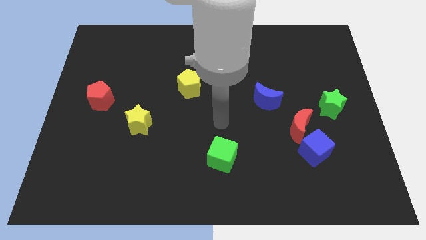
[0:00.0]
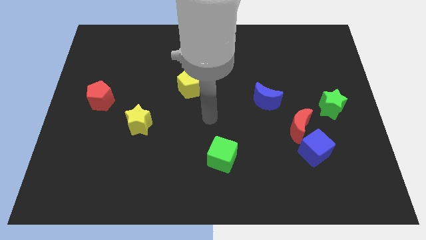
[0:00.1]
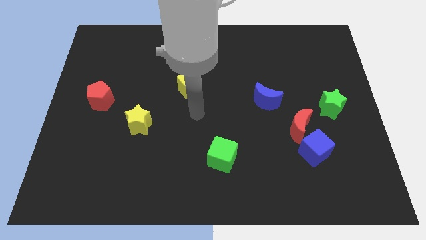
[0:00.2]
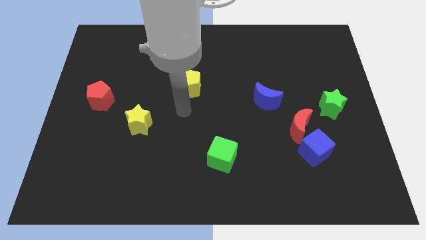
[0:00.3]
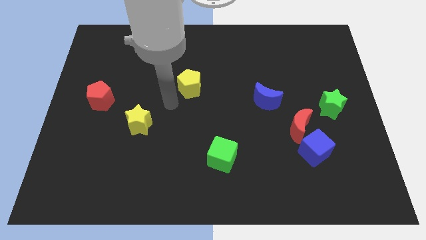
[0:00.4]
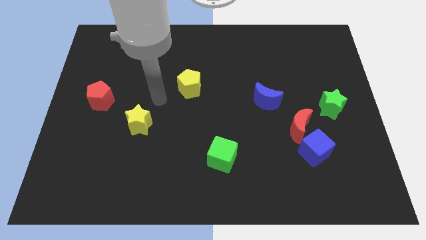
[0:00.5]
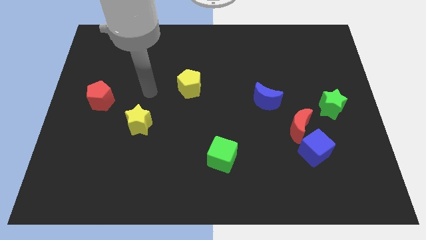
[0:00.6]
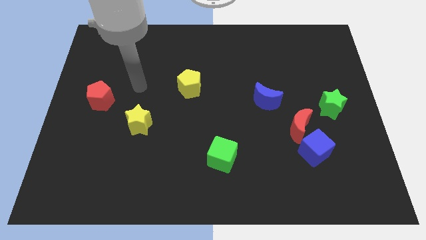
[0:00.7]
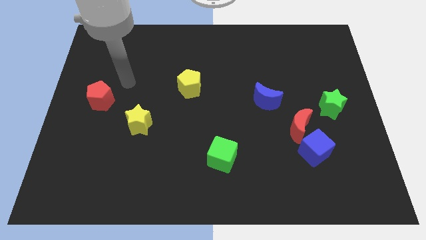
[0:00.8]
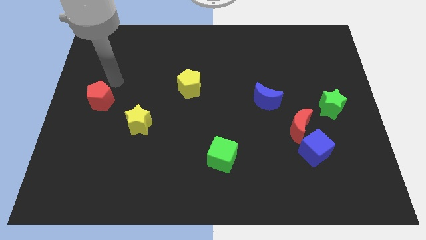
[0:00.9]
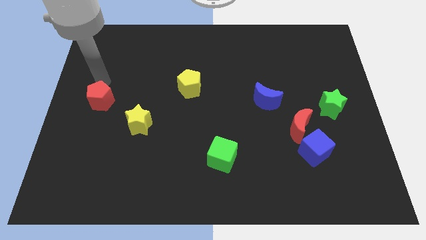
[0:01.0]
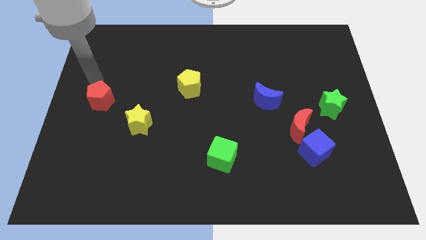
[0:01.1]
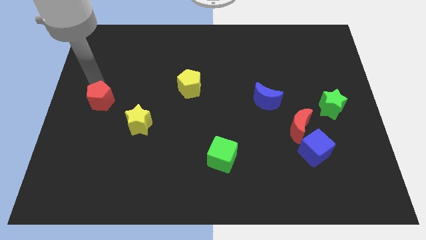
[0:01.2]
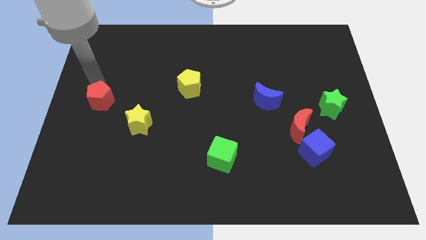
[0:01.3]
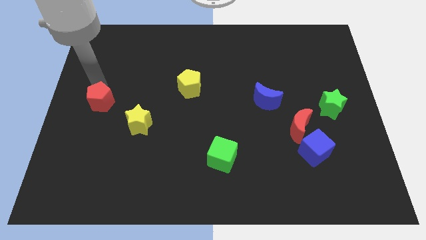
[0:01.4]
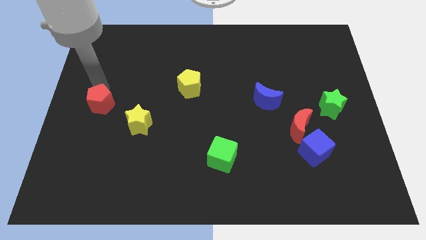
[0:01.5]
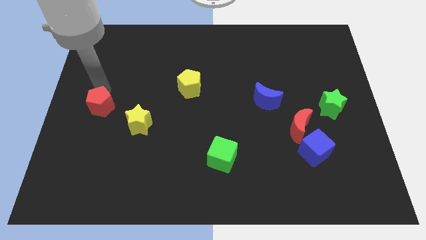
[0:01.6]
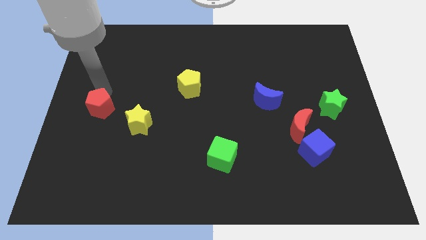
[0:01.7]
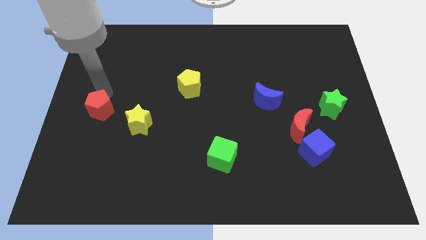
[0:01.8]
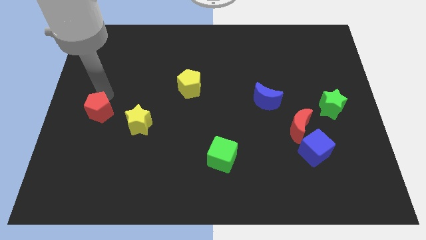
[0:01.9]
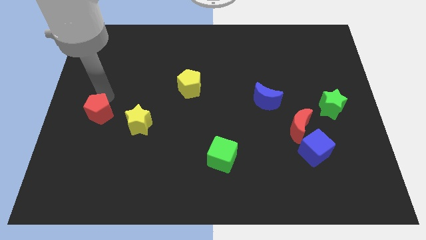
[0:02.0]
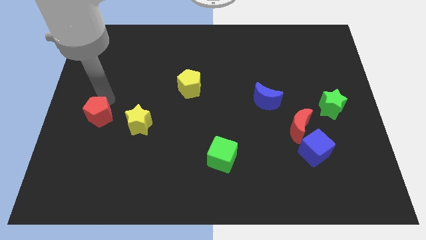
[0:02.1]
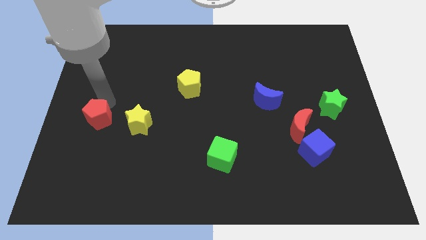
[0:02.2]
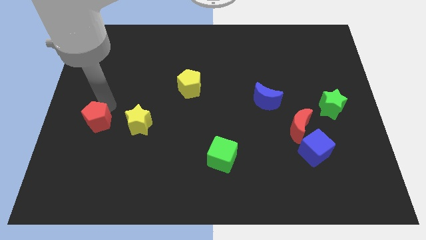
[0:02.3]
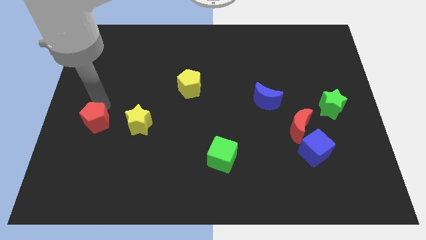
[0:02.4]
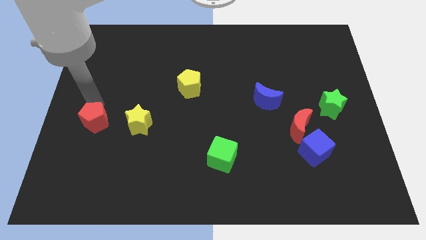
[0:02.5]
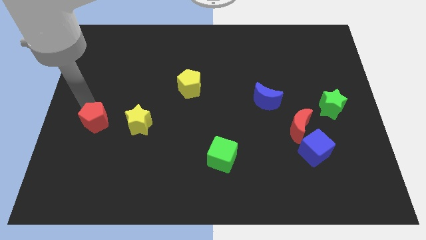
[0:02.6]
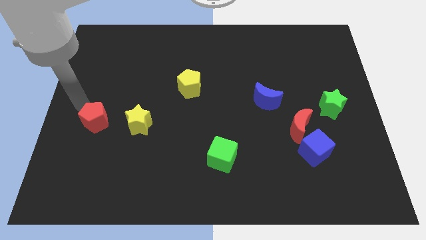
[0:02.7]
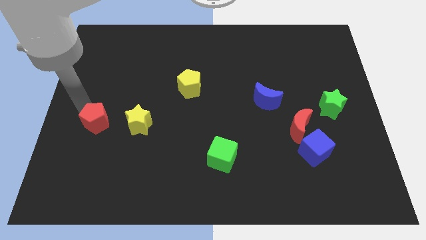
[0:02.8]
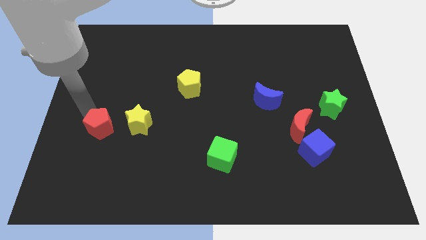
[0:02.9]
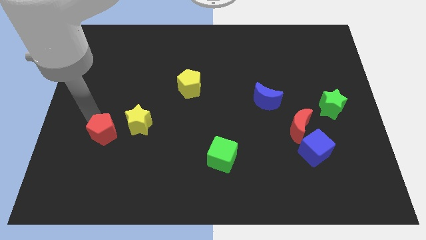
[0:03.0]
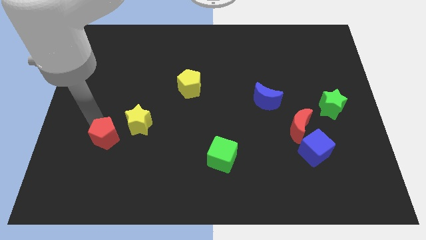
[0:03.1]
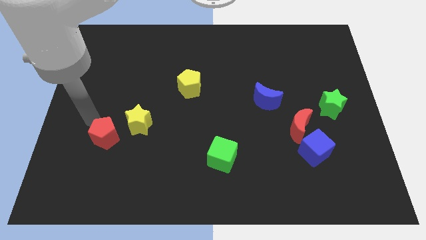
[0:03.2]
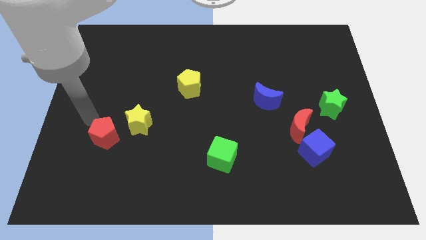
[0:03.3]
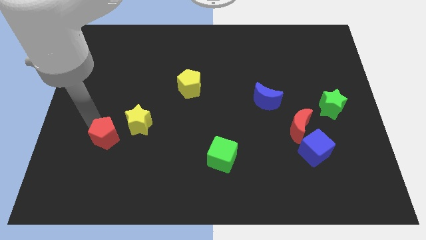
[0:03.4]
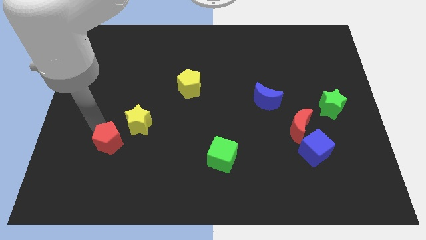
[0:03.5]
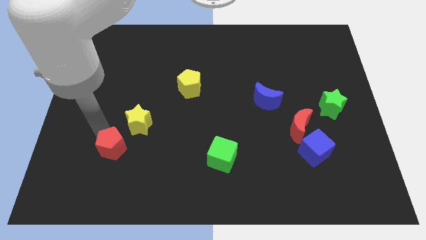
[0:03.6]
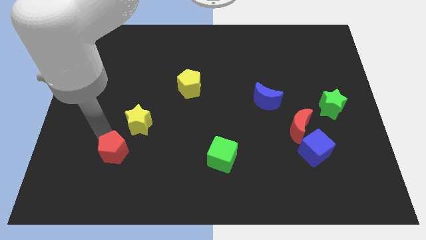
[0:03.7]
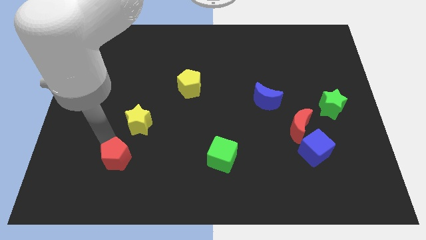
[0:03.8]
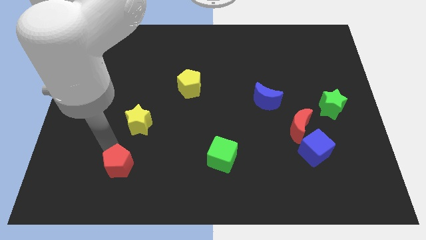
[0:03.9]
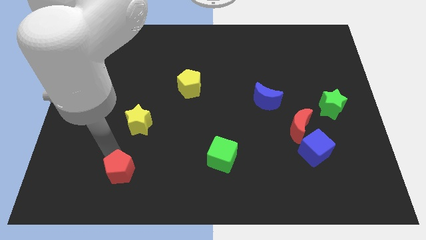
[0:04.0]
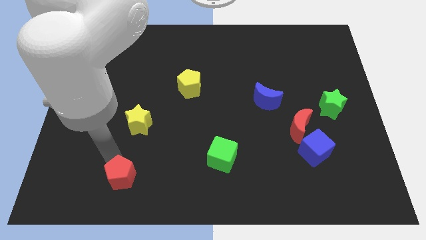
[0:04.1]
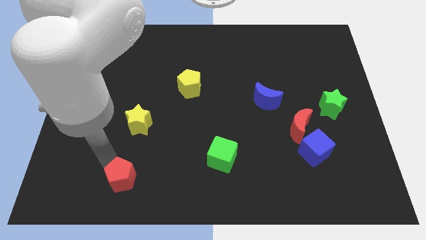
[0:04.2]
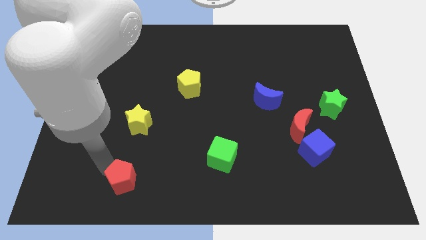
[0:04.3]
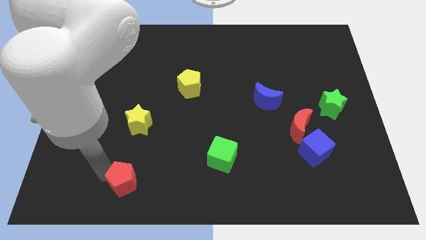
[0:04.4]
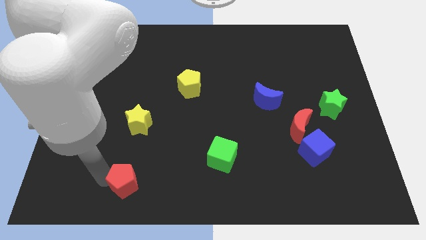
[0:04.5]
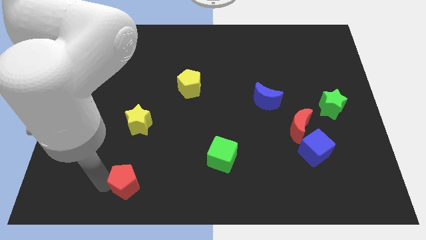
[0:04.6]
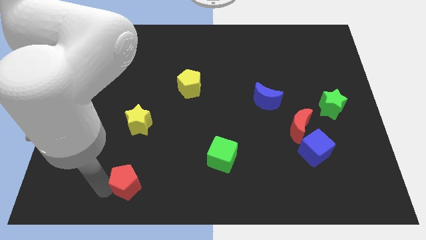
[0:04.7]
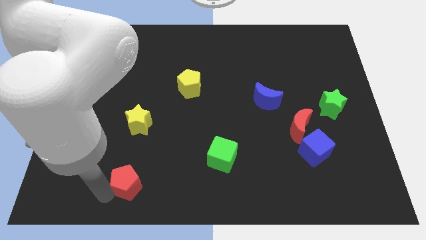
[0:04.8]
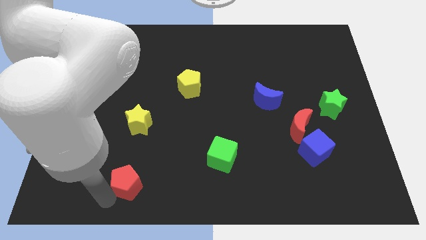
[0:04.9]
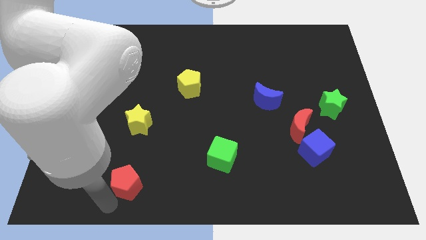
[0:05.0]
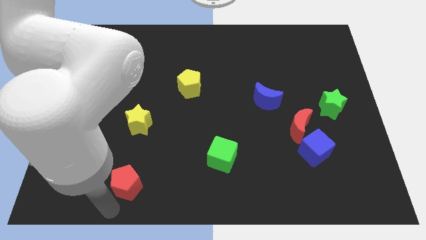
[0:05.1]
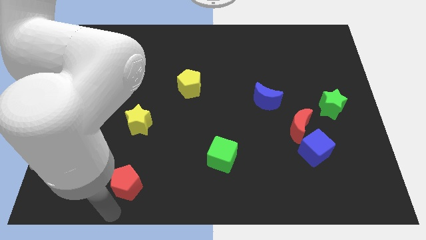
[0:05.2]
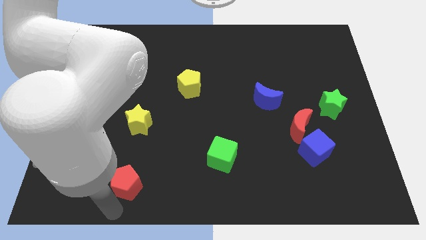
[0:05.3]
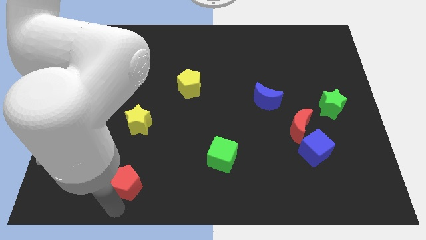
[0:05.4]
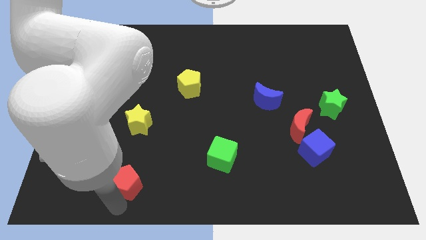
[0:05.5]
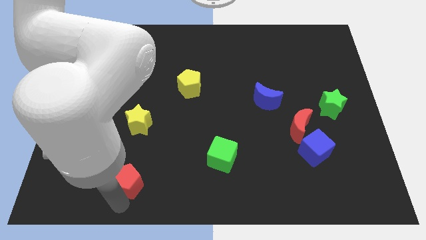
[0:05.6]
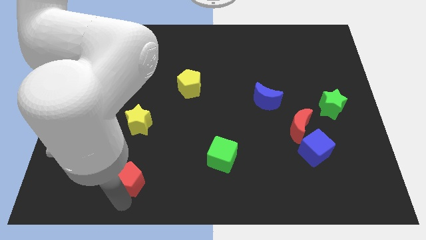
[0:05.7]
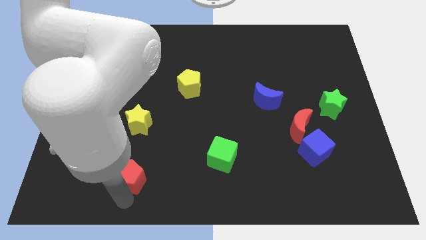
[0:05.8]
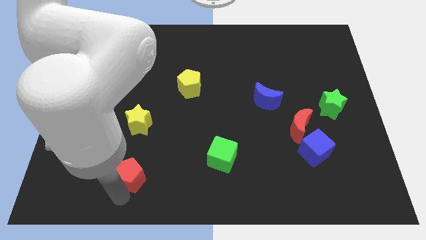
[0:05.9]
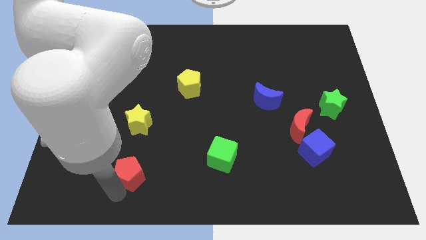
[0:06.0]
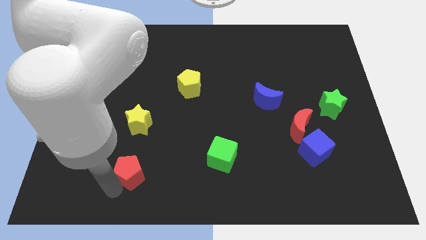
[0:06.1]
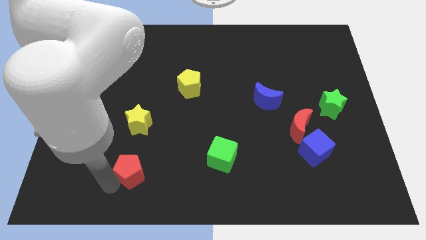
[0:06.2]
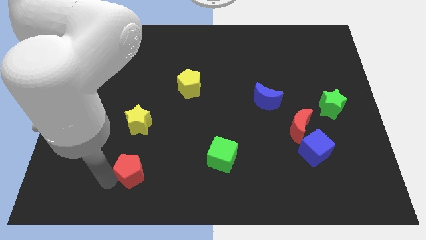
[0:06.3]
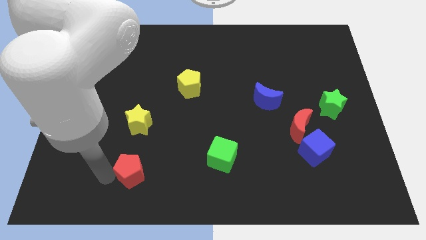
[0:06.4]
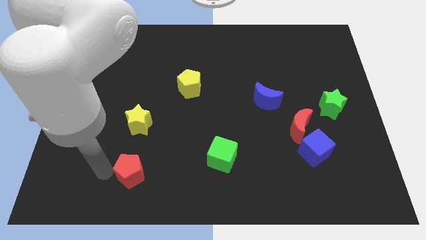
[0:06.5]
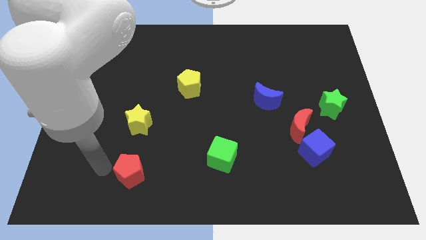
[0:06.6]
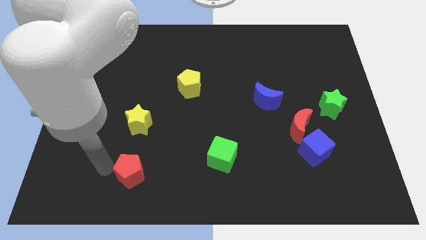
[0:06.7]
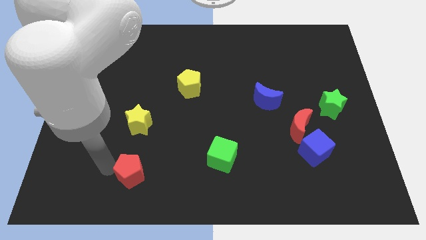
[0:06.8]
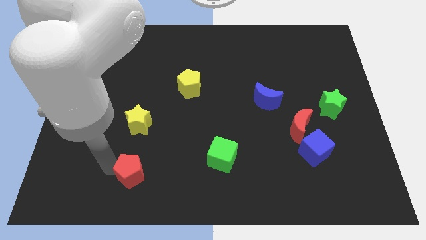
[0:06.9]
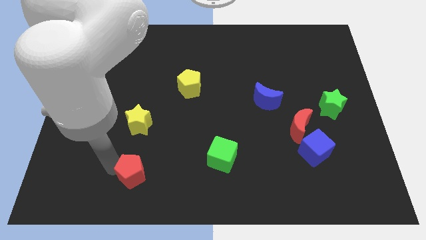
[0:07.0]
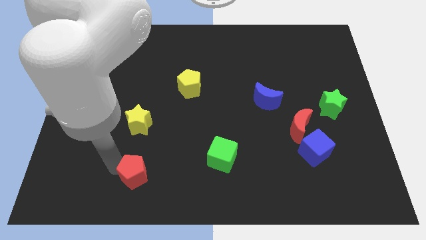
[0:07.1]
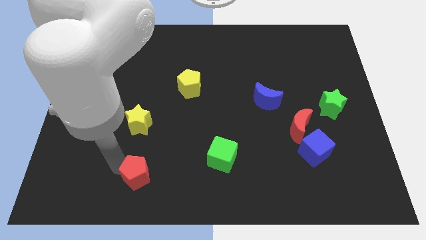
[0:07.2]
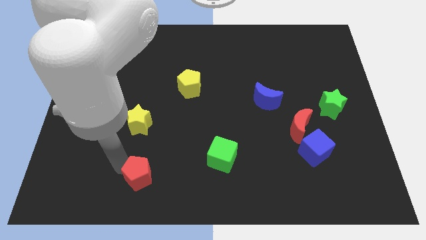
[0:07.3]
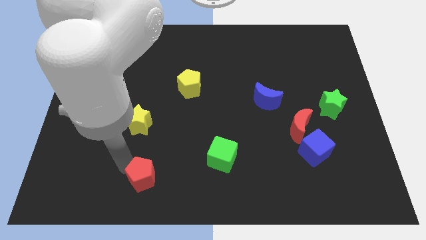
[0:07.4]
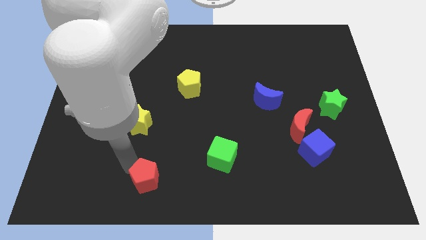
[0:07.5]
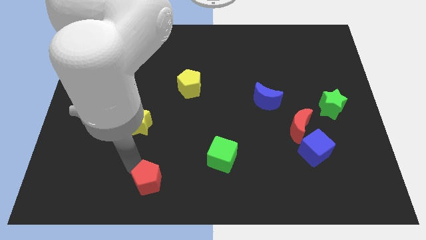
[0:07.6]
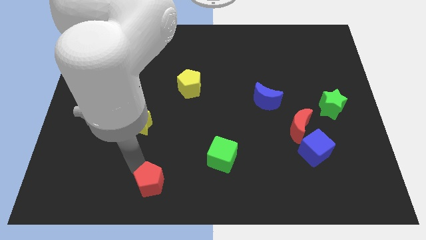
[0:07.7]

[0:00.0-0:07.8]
push the red pentagon to the bottom
